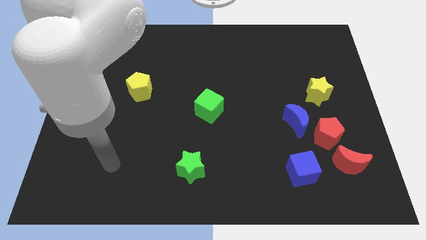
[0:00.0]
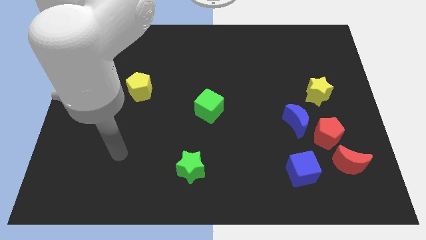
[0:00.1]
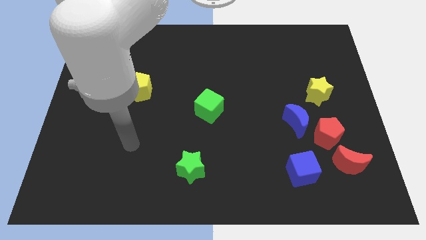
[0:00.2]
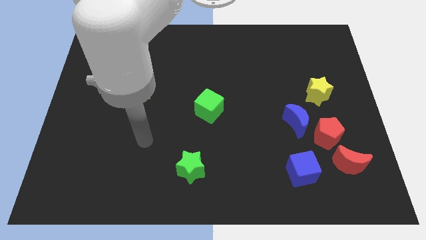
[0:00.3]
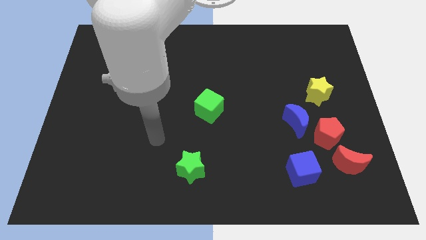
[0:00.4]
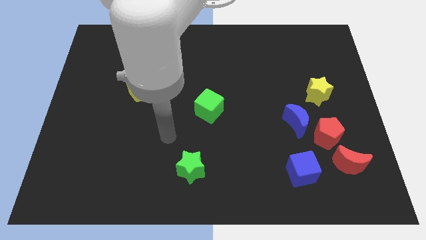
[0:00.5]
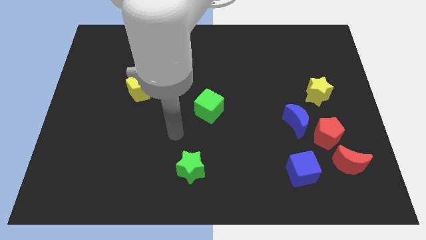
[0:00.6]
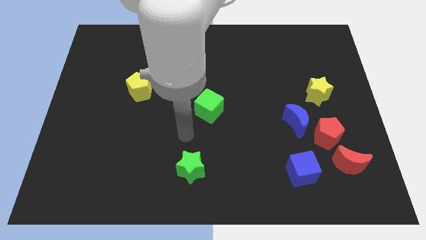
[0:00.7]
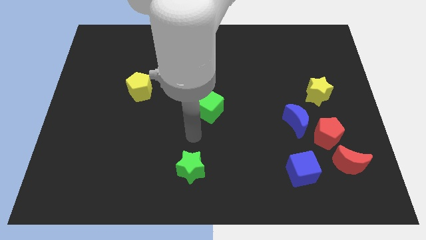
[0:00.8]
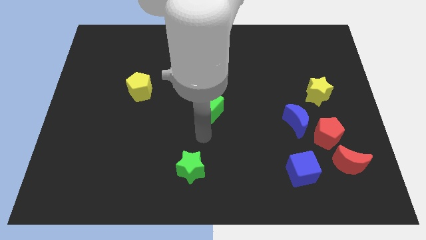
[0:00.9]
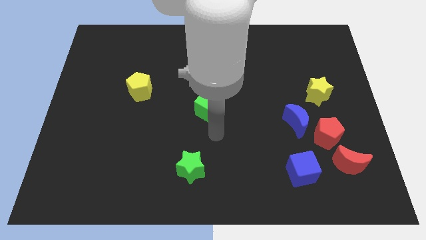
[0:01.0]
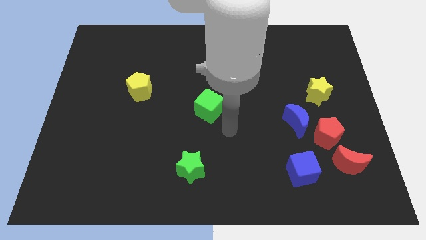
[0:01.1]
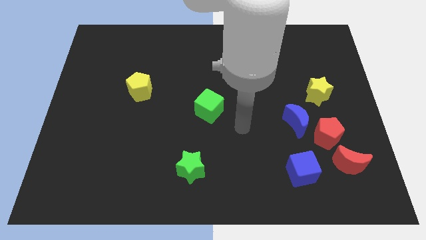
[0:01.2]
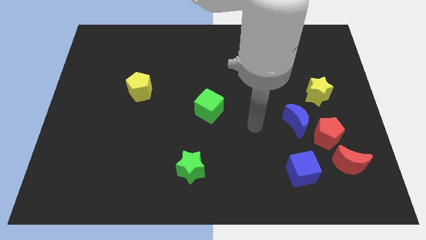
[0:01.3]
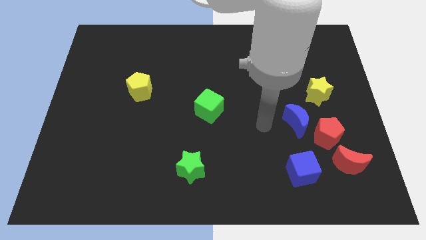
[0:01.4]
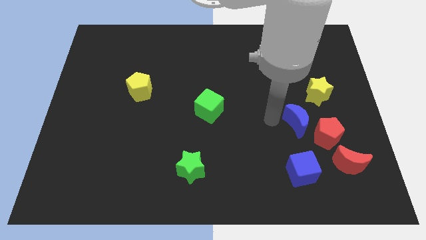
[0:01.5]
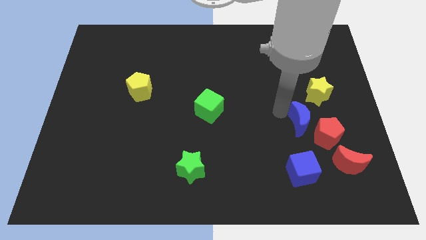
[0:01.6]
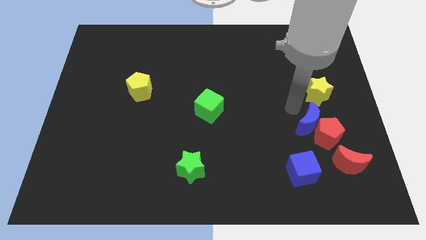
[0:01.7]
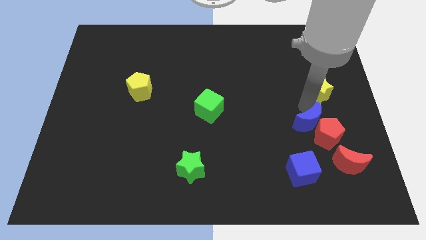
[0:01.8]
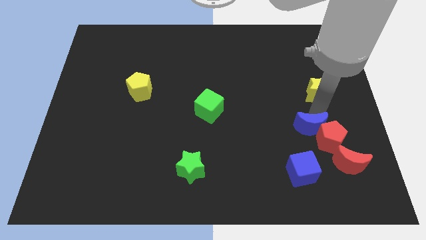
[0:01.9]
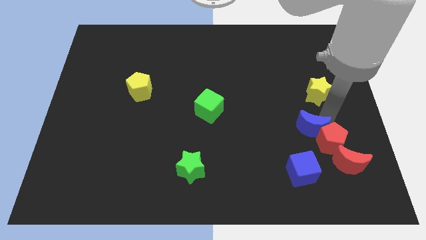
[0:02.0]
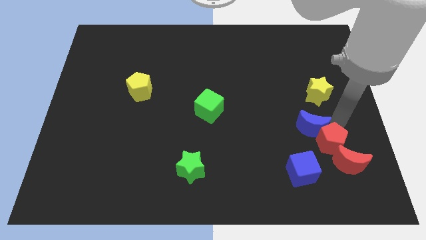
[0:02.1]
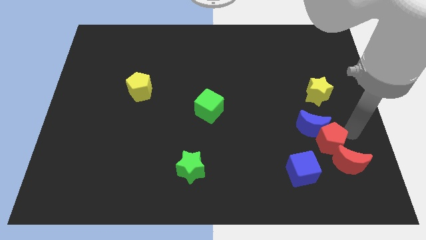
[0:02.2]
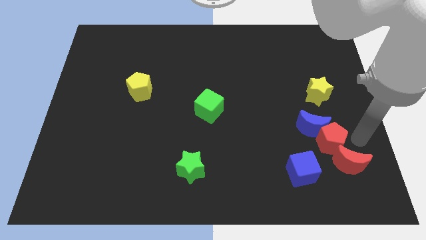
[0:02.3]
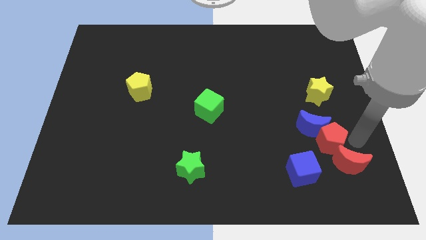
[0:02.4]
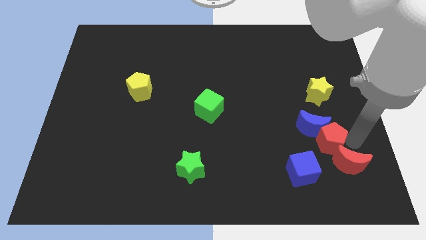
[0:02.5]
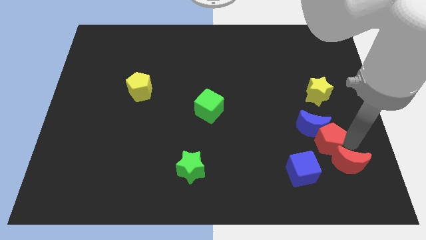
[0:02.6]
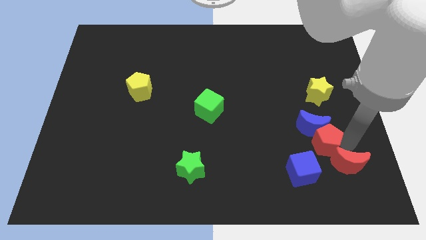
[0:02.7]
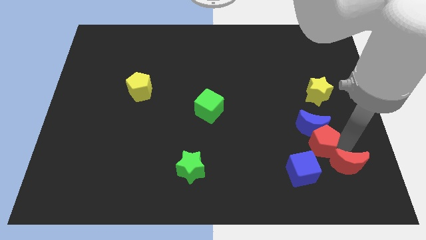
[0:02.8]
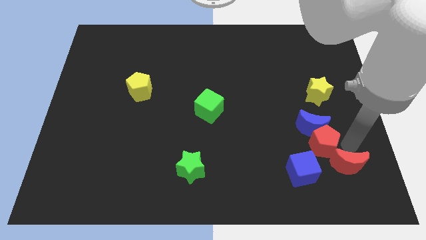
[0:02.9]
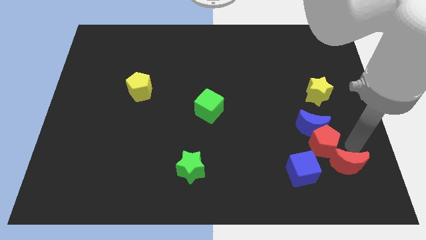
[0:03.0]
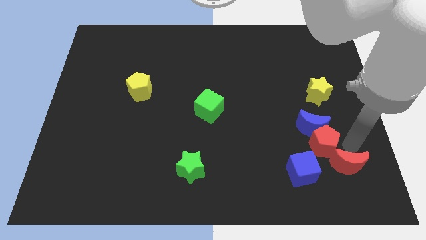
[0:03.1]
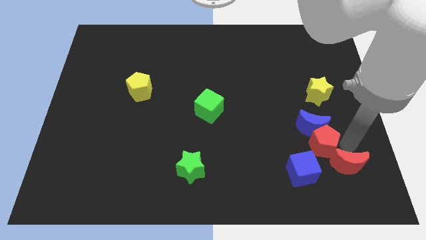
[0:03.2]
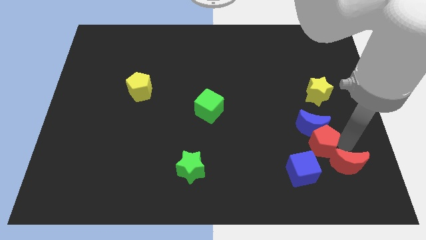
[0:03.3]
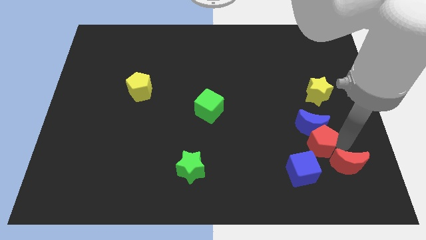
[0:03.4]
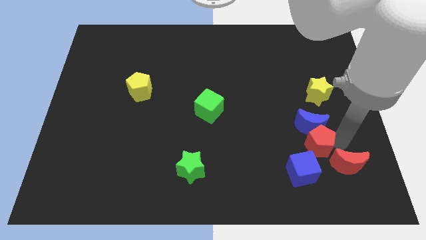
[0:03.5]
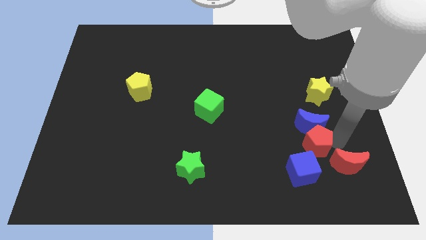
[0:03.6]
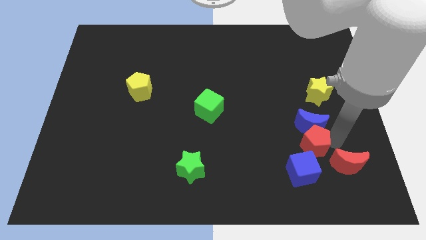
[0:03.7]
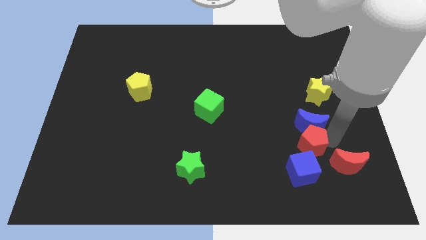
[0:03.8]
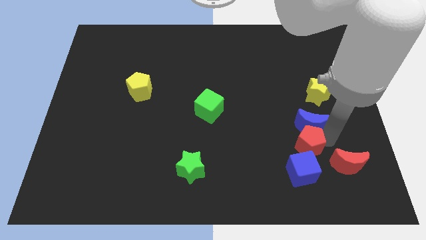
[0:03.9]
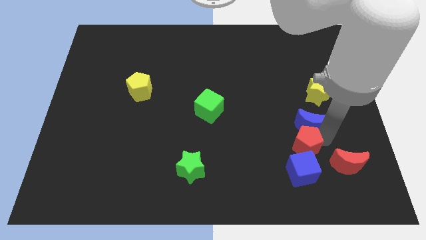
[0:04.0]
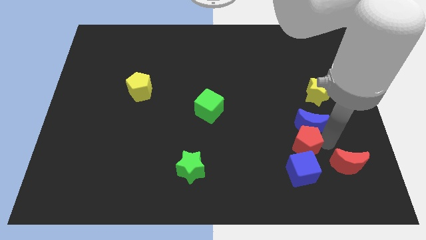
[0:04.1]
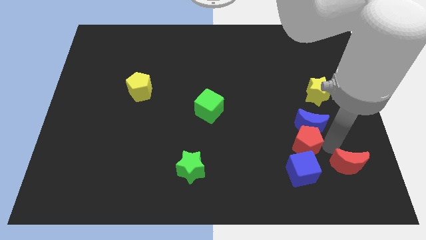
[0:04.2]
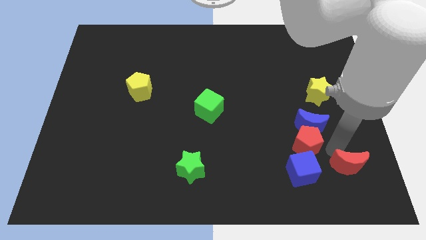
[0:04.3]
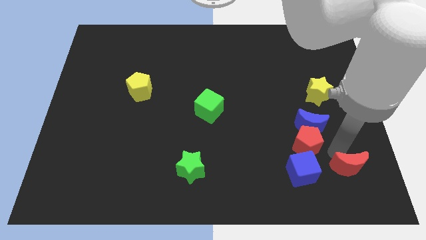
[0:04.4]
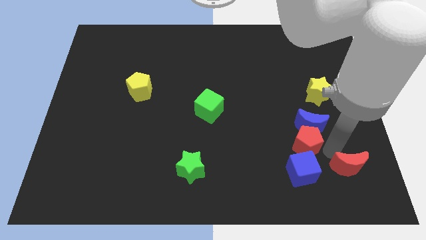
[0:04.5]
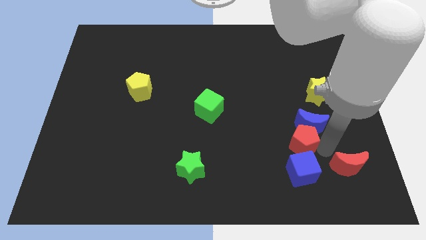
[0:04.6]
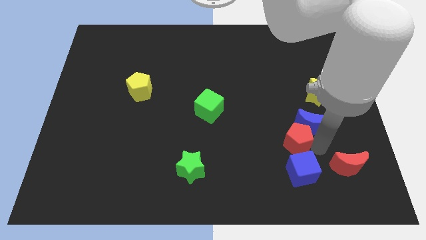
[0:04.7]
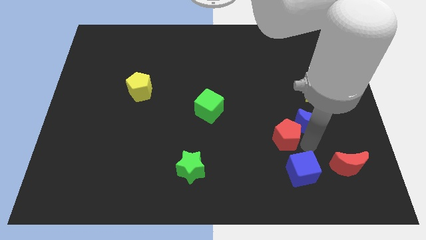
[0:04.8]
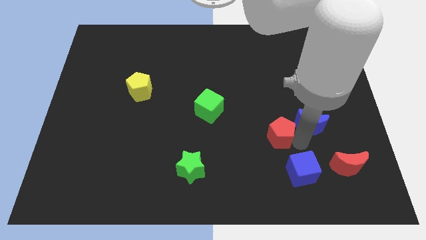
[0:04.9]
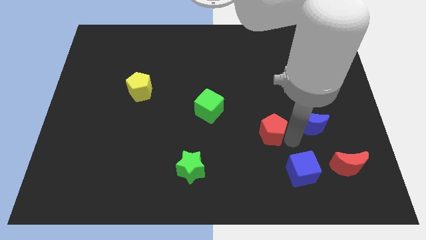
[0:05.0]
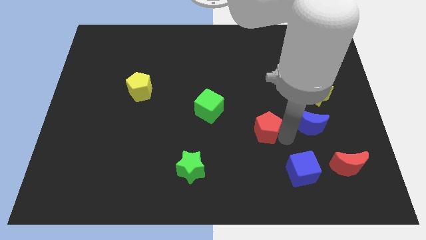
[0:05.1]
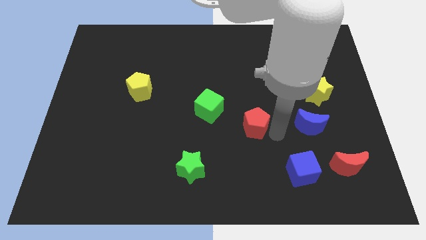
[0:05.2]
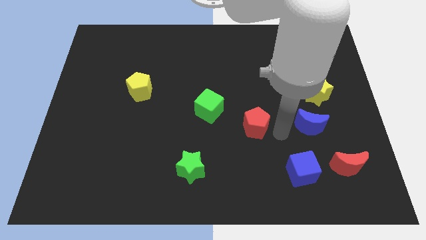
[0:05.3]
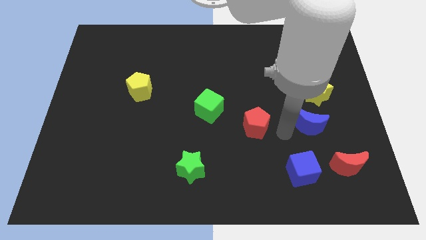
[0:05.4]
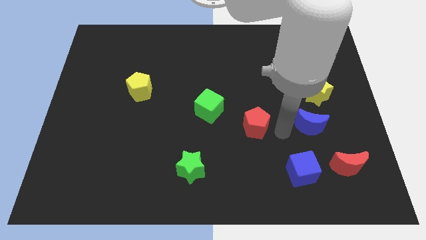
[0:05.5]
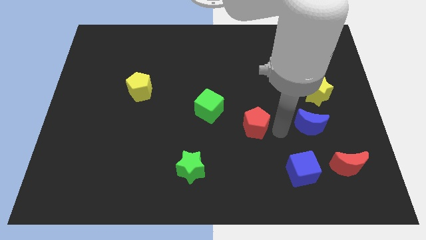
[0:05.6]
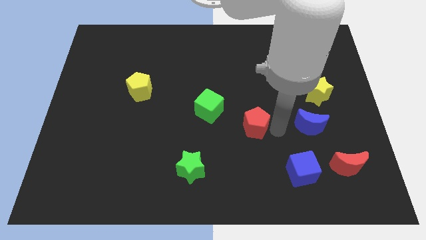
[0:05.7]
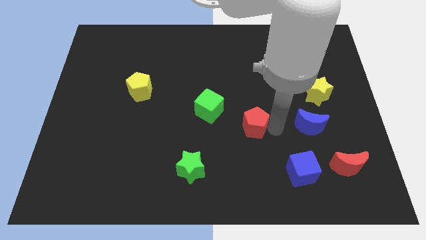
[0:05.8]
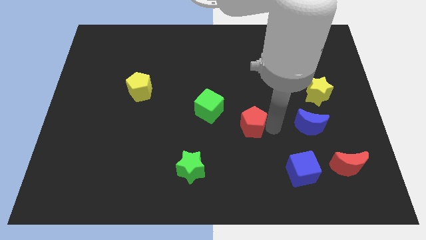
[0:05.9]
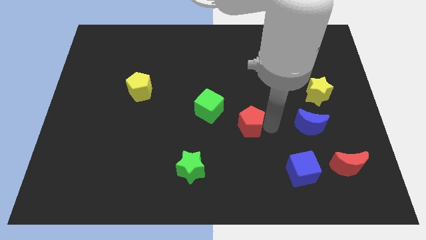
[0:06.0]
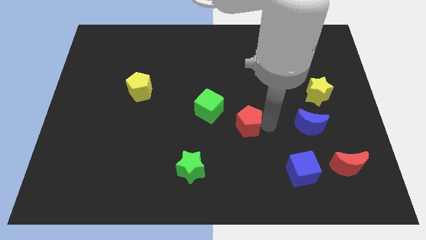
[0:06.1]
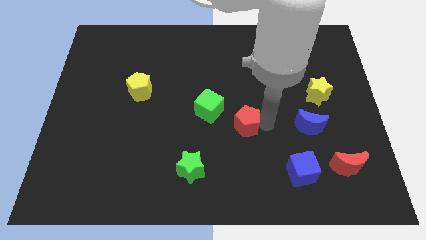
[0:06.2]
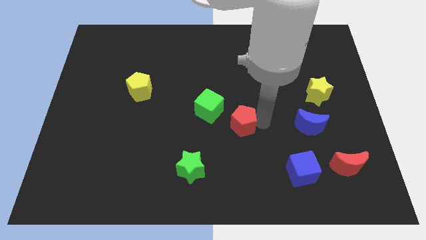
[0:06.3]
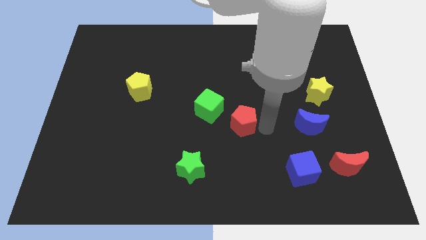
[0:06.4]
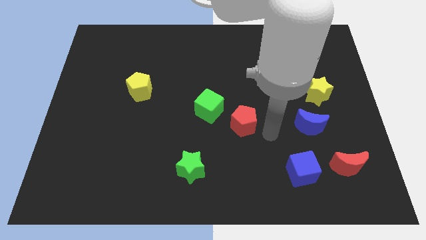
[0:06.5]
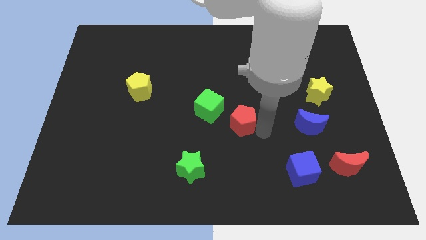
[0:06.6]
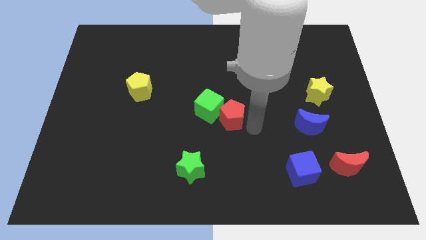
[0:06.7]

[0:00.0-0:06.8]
put the red pentagon towards the green cube

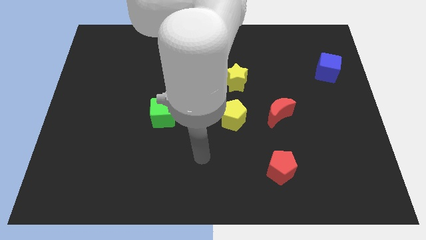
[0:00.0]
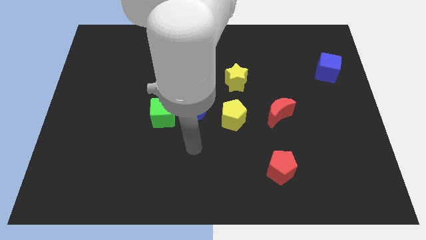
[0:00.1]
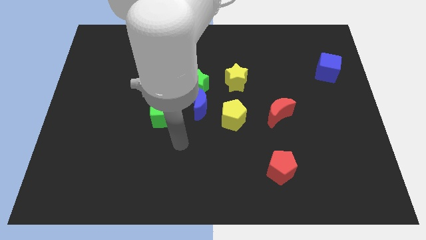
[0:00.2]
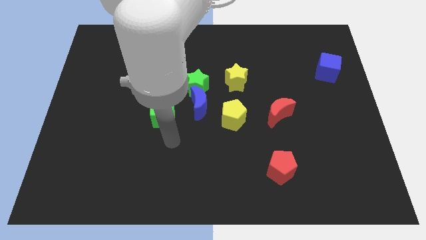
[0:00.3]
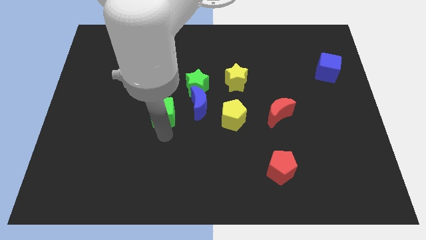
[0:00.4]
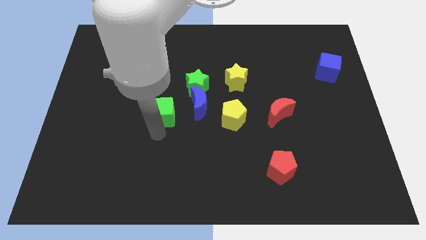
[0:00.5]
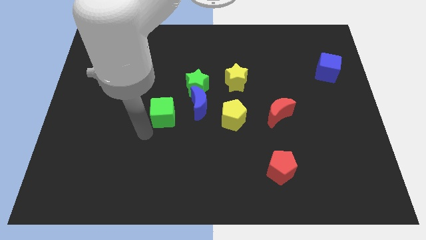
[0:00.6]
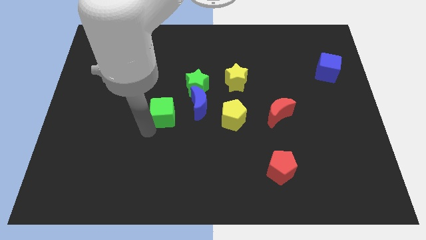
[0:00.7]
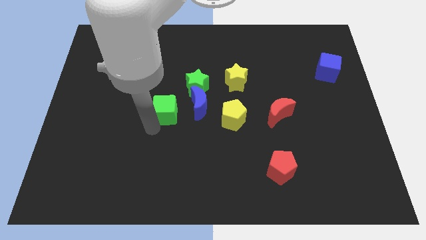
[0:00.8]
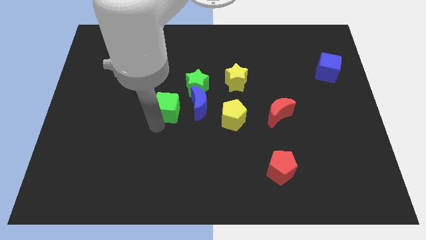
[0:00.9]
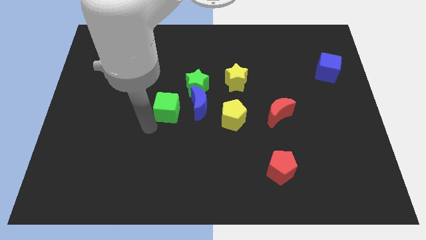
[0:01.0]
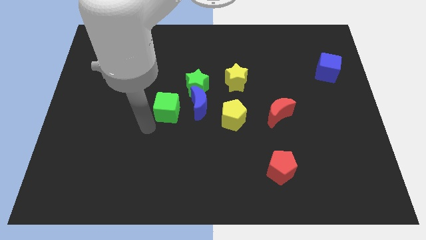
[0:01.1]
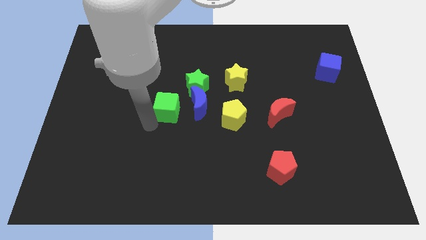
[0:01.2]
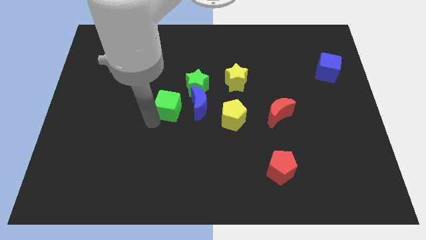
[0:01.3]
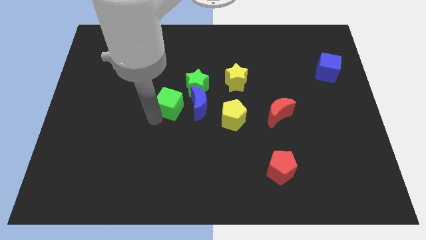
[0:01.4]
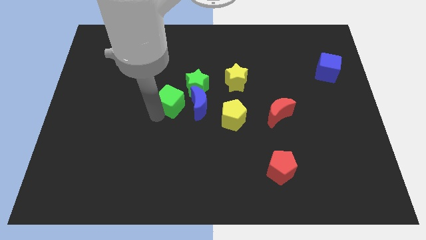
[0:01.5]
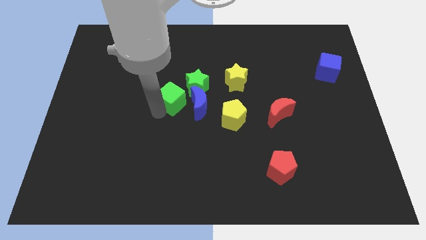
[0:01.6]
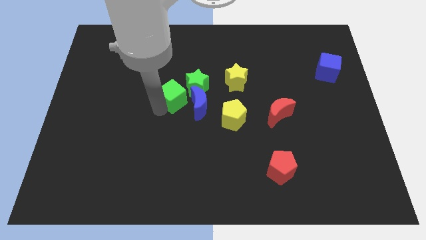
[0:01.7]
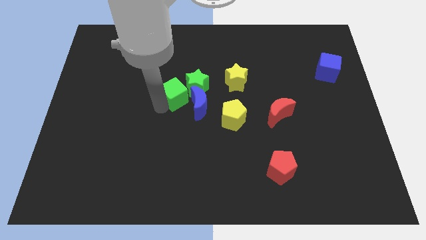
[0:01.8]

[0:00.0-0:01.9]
move the green cube towards the green star
